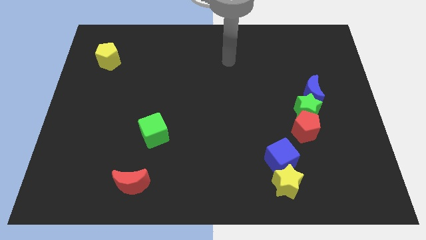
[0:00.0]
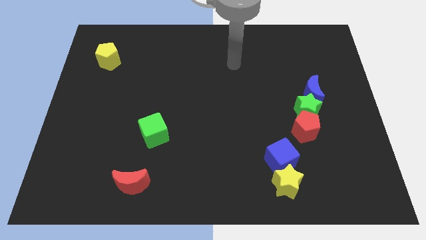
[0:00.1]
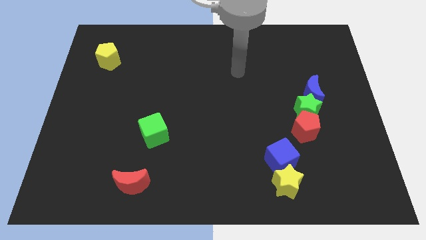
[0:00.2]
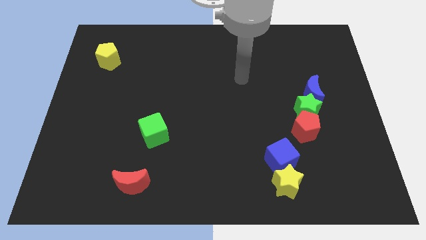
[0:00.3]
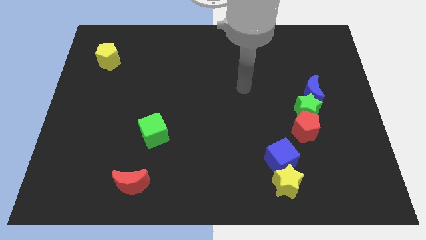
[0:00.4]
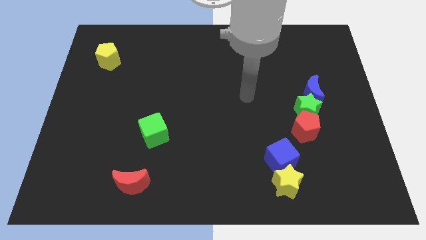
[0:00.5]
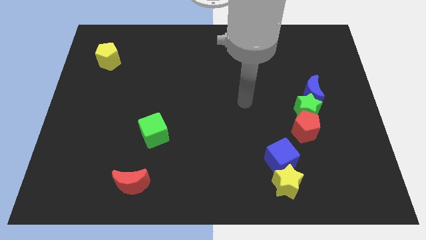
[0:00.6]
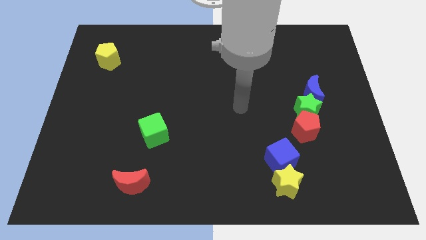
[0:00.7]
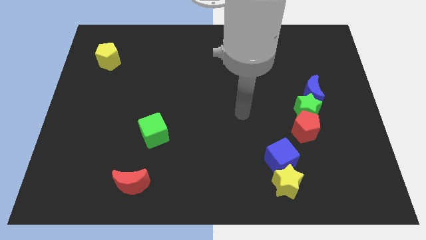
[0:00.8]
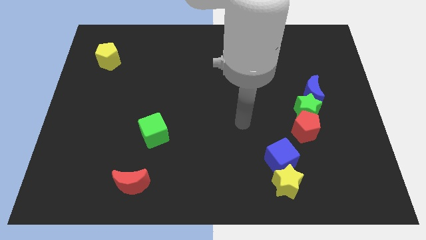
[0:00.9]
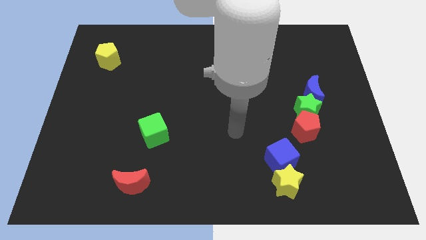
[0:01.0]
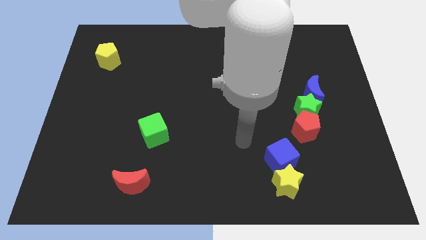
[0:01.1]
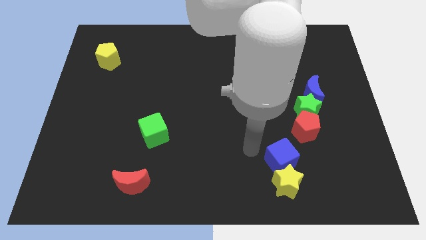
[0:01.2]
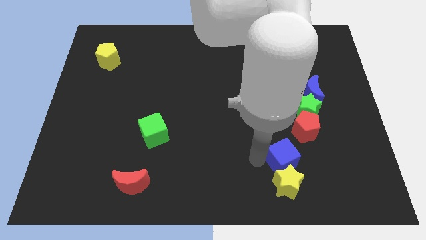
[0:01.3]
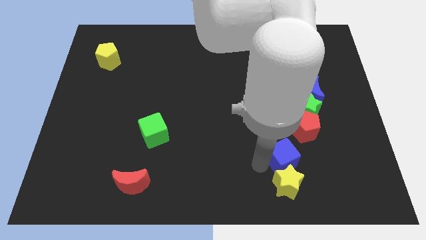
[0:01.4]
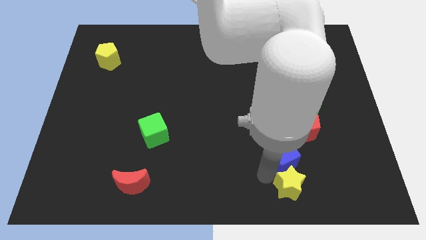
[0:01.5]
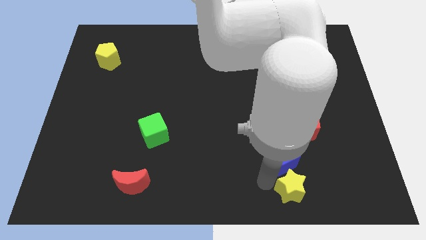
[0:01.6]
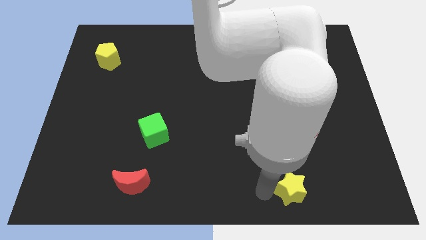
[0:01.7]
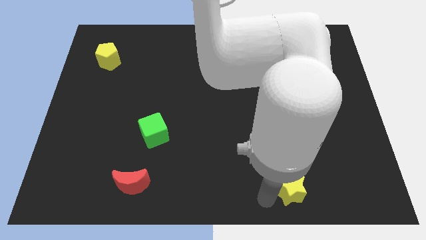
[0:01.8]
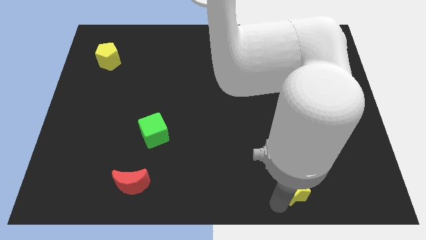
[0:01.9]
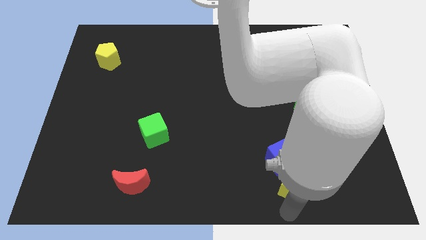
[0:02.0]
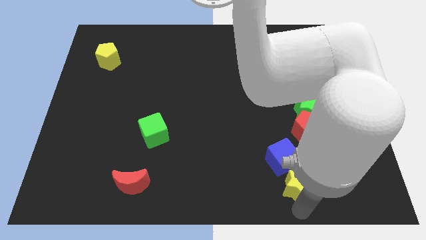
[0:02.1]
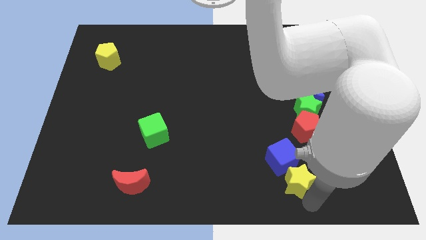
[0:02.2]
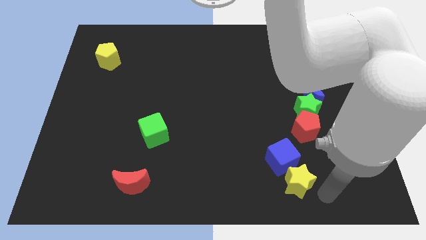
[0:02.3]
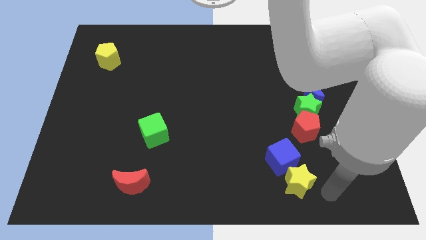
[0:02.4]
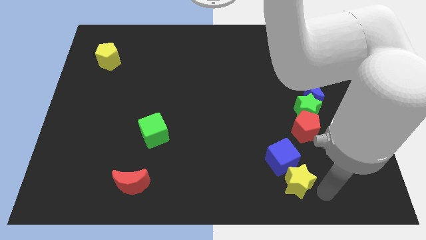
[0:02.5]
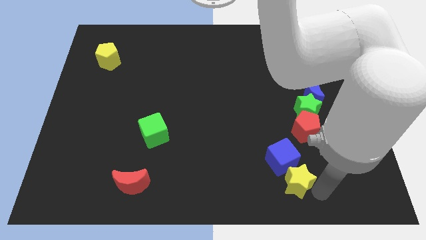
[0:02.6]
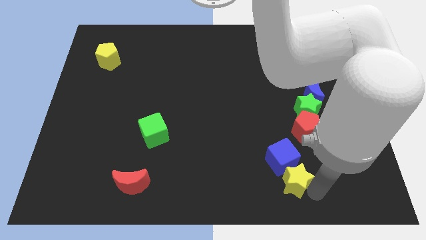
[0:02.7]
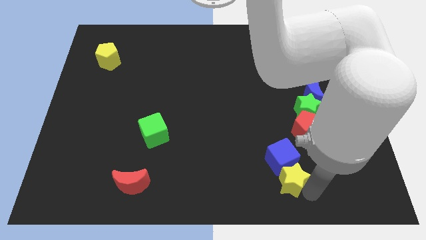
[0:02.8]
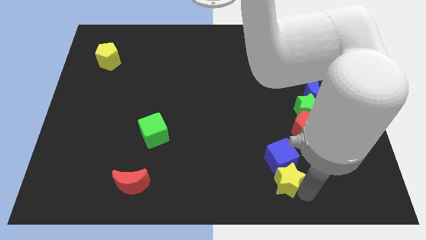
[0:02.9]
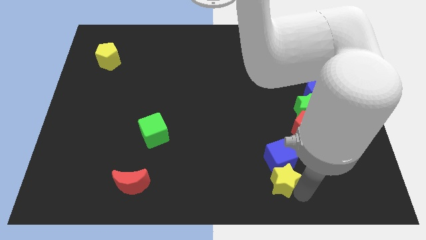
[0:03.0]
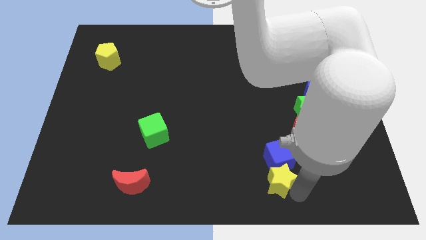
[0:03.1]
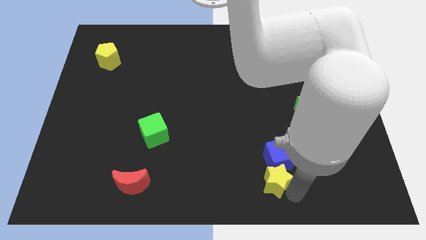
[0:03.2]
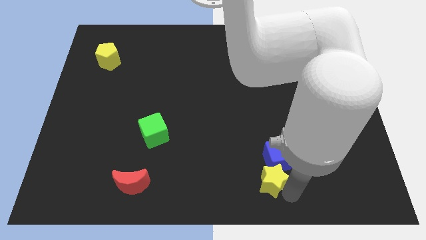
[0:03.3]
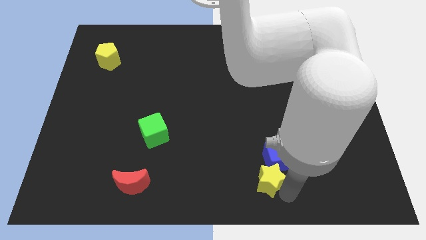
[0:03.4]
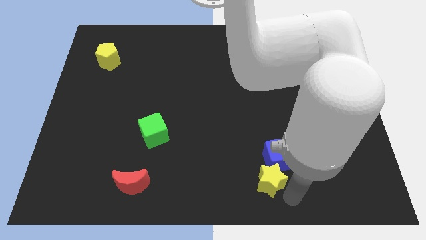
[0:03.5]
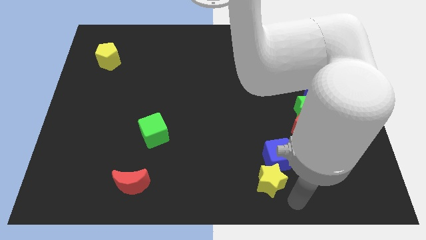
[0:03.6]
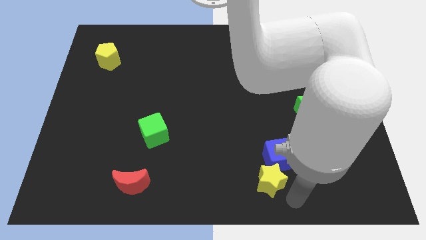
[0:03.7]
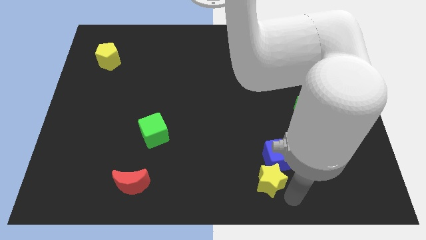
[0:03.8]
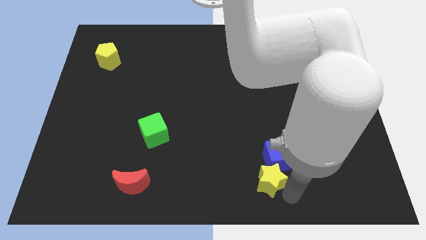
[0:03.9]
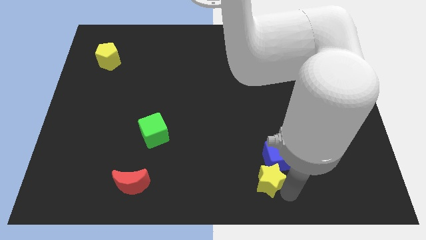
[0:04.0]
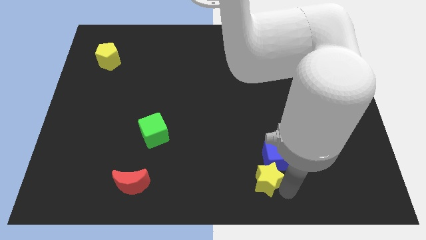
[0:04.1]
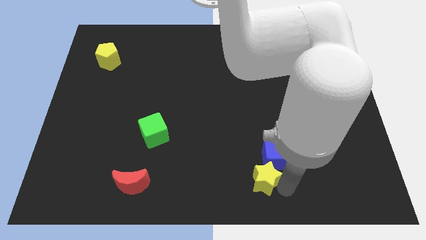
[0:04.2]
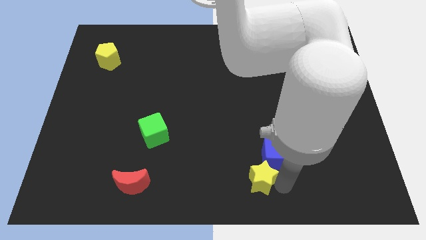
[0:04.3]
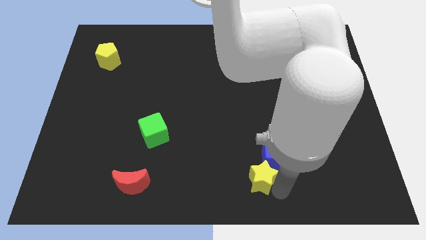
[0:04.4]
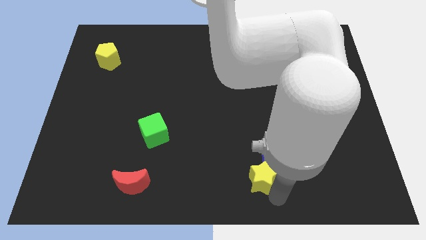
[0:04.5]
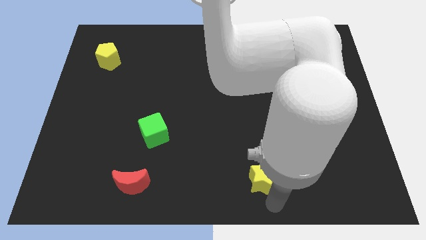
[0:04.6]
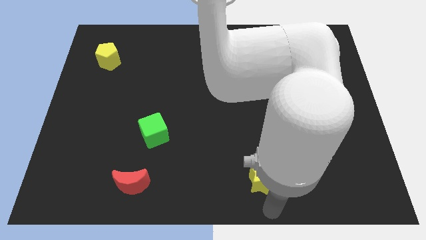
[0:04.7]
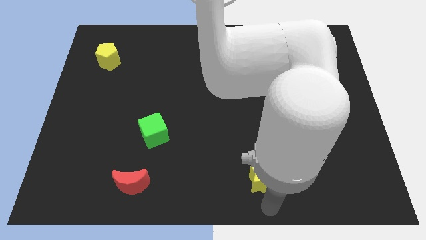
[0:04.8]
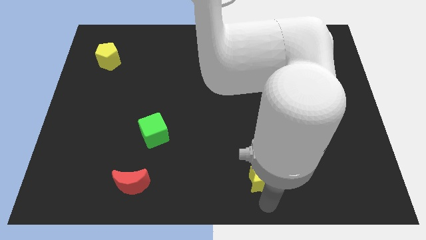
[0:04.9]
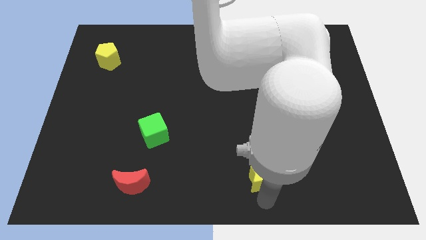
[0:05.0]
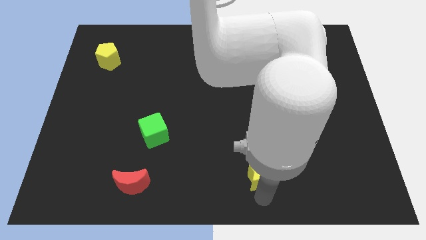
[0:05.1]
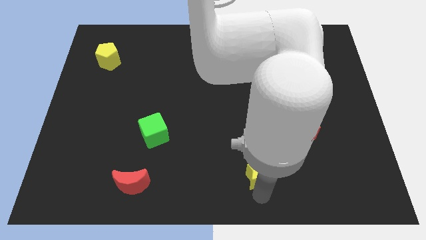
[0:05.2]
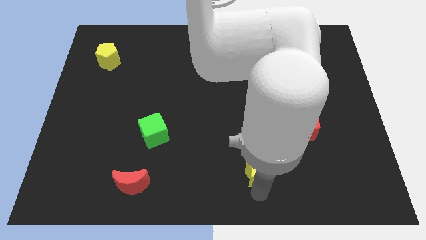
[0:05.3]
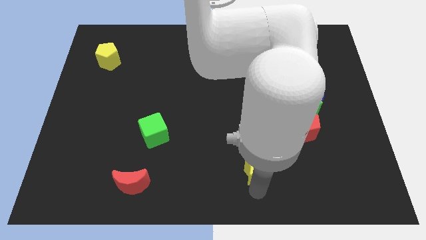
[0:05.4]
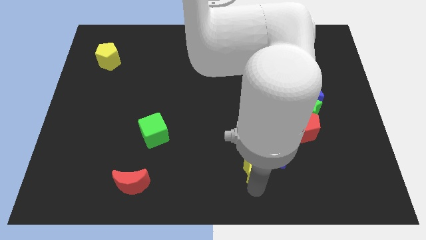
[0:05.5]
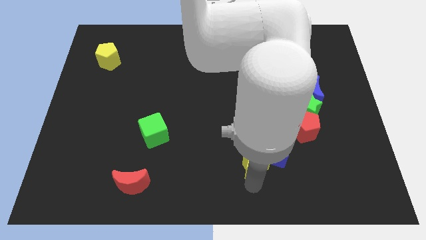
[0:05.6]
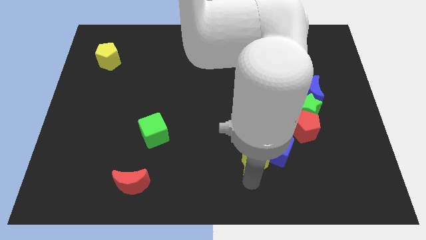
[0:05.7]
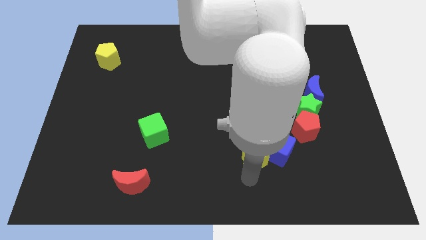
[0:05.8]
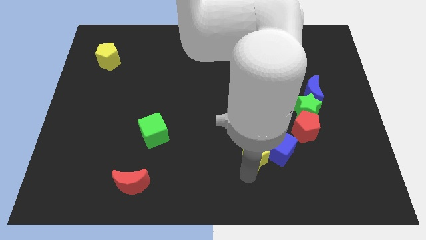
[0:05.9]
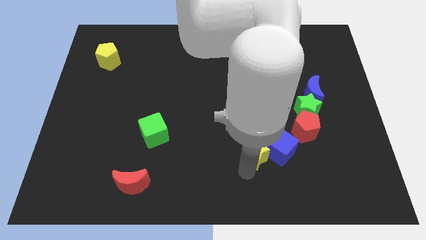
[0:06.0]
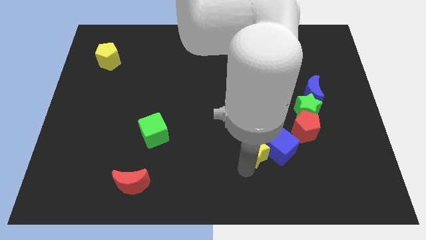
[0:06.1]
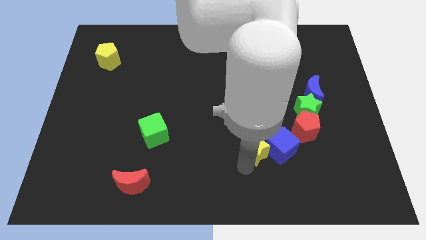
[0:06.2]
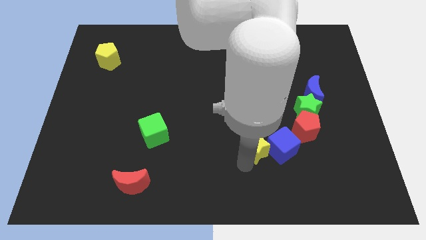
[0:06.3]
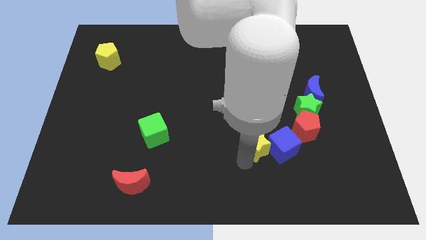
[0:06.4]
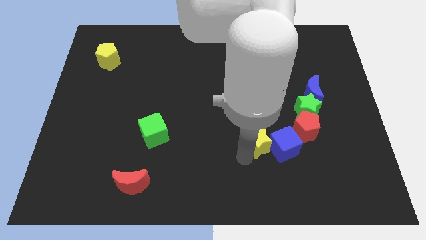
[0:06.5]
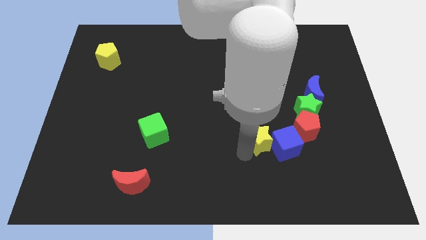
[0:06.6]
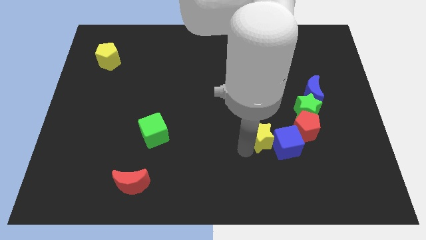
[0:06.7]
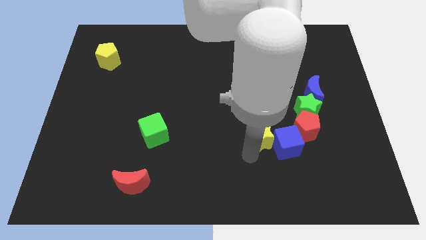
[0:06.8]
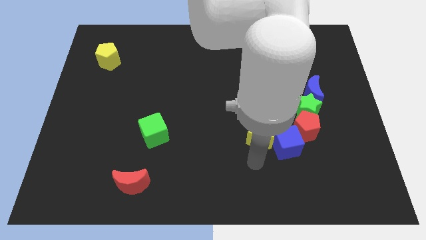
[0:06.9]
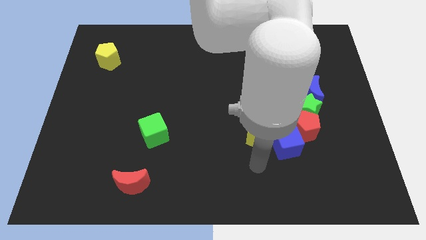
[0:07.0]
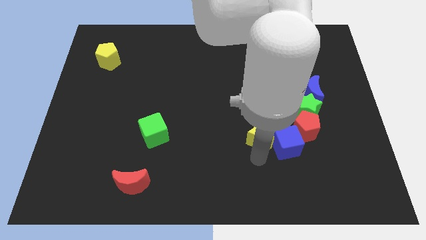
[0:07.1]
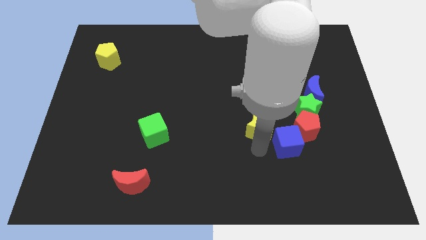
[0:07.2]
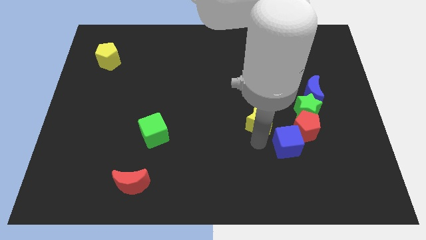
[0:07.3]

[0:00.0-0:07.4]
push the yellow star to the left of the green star
